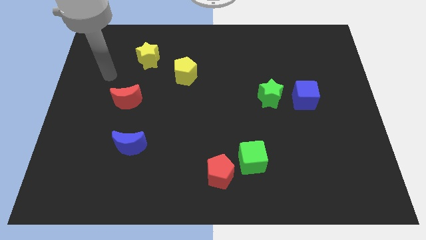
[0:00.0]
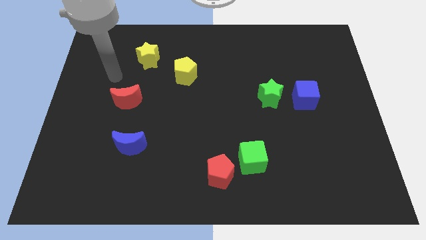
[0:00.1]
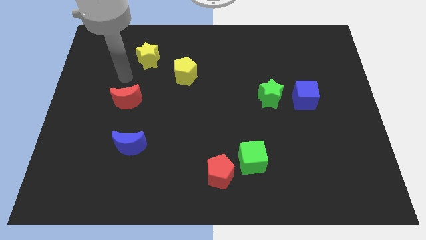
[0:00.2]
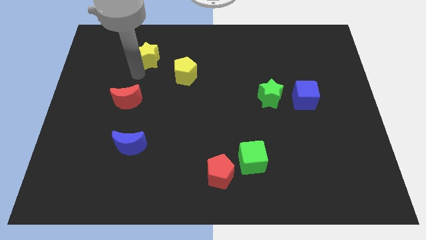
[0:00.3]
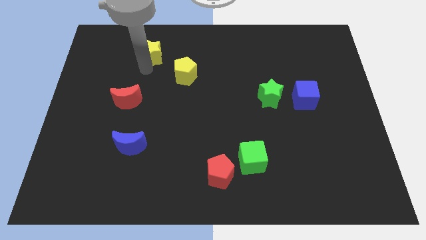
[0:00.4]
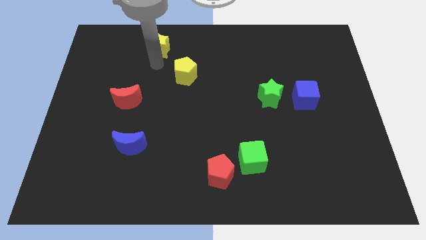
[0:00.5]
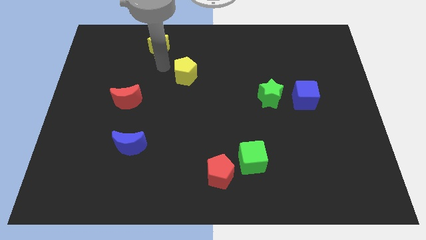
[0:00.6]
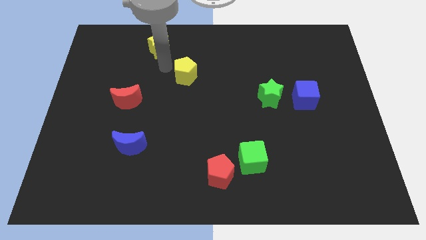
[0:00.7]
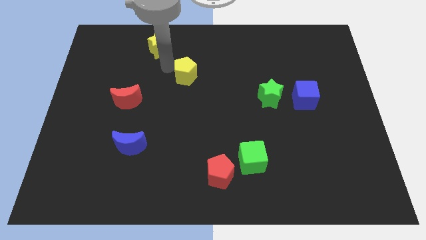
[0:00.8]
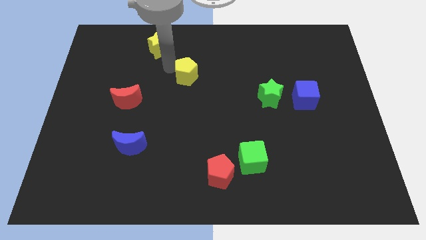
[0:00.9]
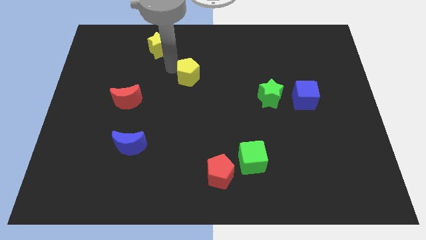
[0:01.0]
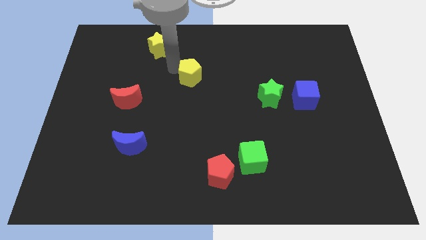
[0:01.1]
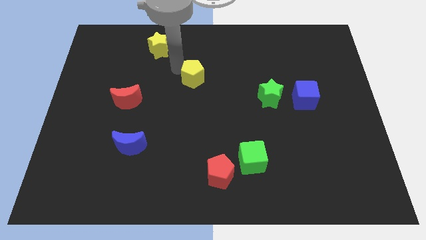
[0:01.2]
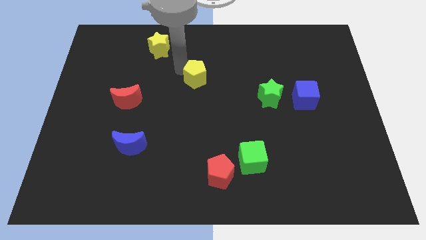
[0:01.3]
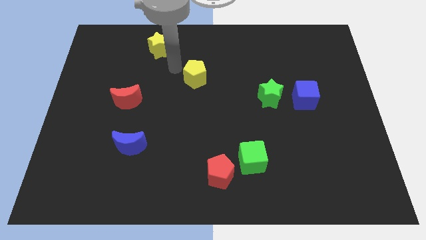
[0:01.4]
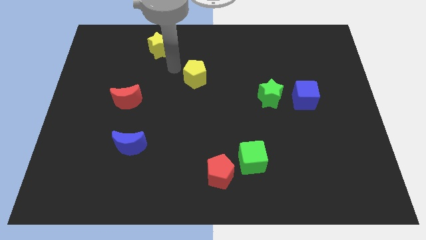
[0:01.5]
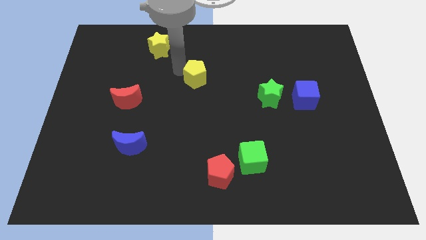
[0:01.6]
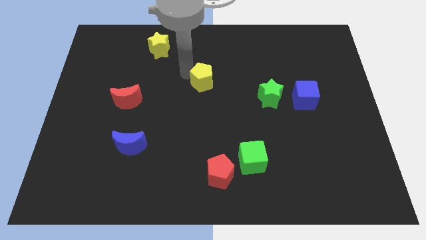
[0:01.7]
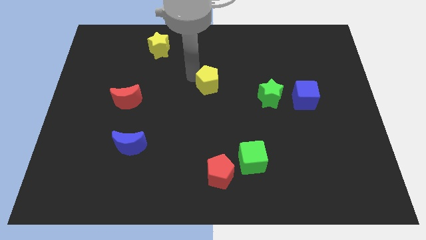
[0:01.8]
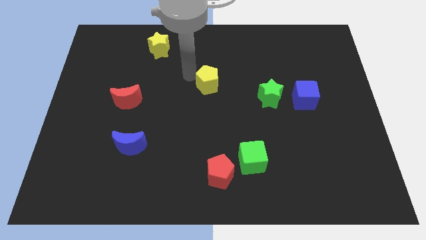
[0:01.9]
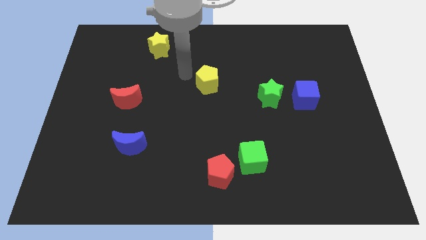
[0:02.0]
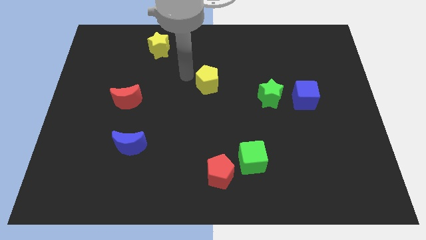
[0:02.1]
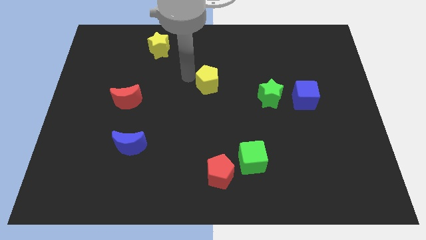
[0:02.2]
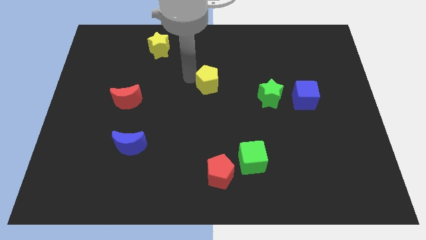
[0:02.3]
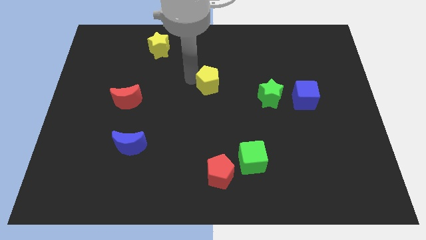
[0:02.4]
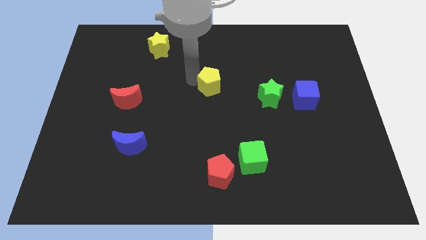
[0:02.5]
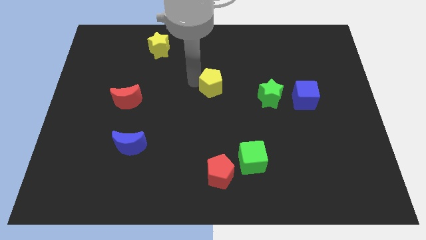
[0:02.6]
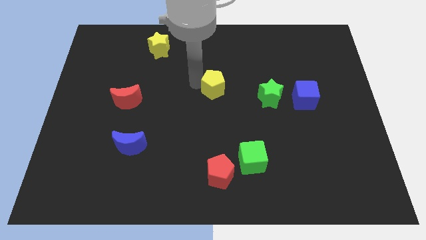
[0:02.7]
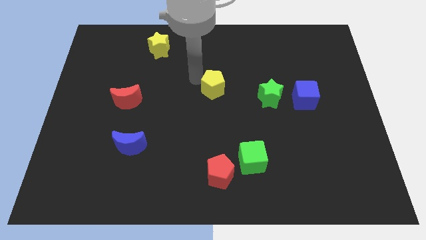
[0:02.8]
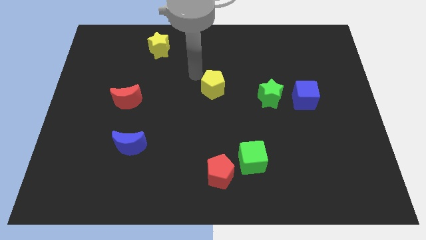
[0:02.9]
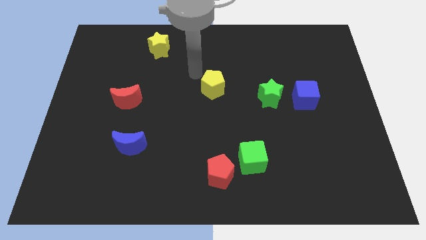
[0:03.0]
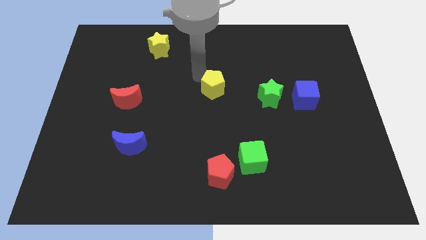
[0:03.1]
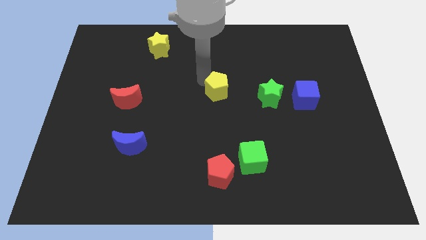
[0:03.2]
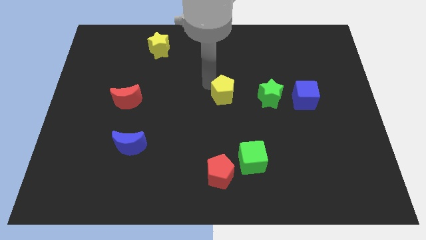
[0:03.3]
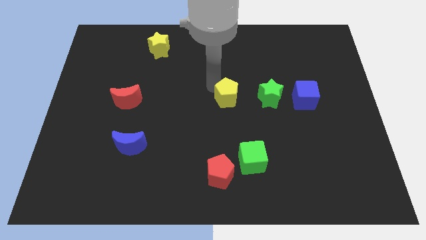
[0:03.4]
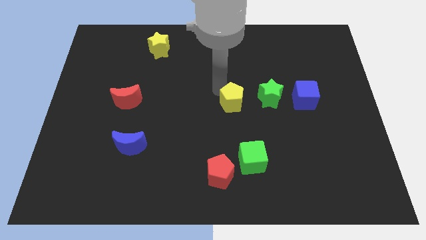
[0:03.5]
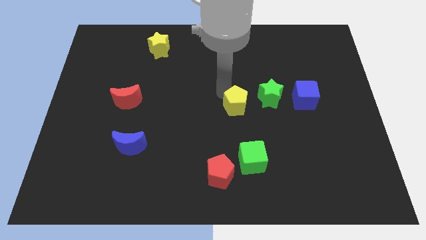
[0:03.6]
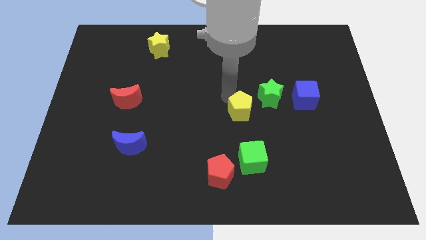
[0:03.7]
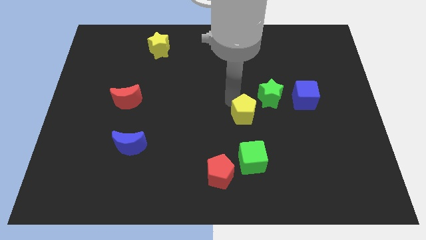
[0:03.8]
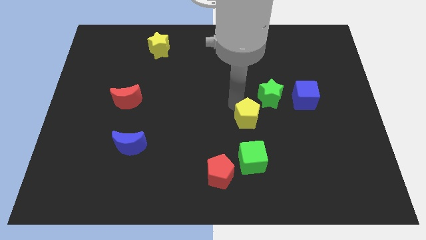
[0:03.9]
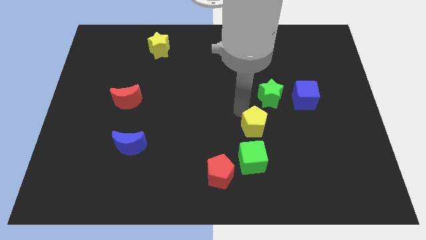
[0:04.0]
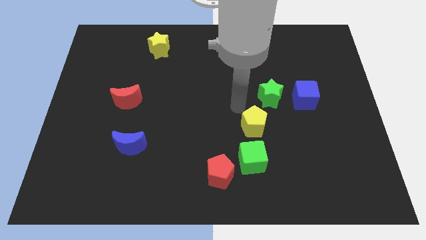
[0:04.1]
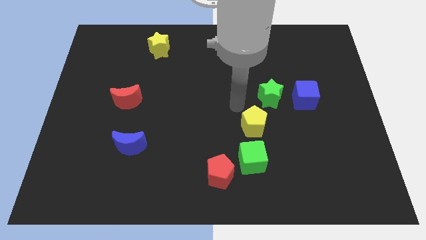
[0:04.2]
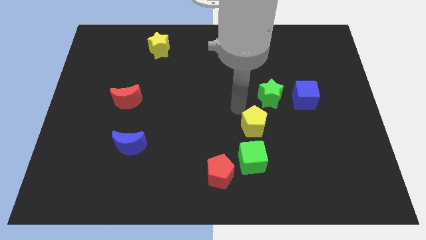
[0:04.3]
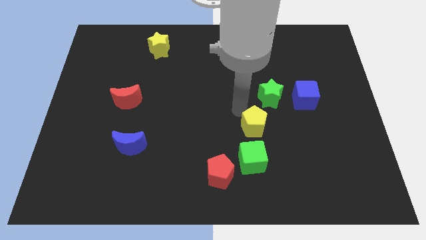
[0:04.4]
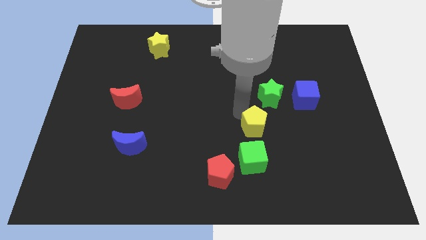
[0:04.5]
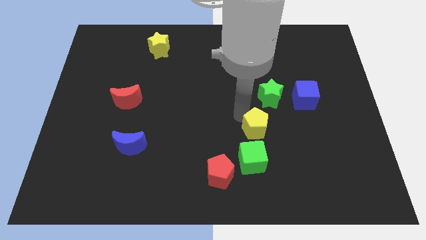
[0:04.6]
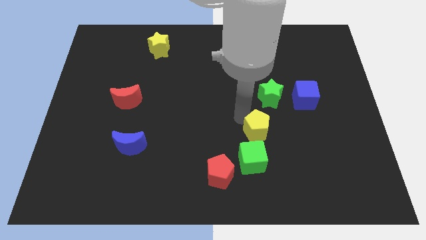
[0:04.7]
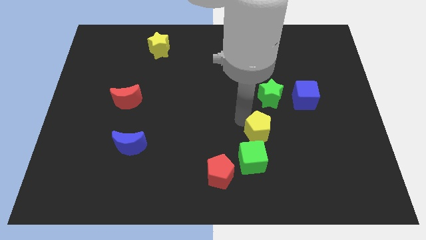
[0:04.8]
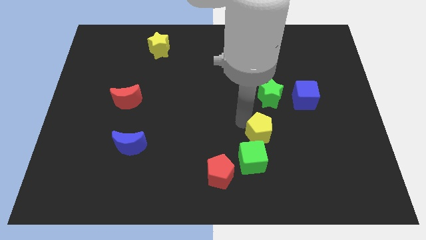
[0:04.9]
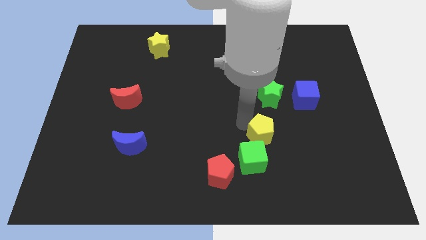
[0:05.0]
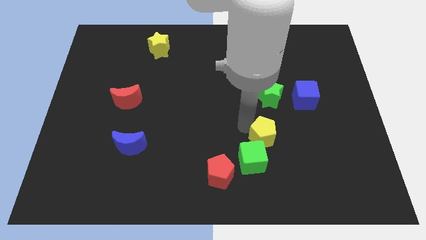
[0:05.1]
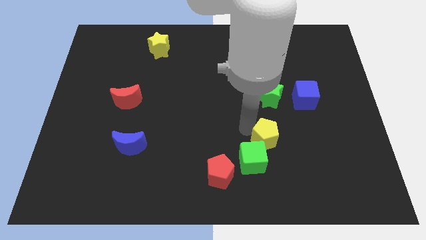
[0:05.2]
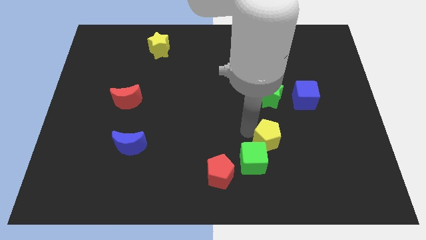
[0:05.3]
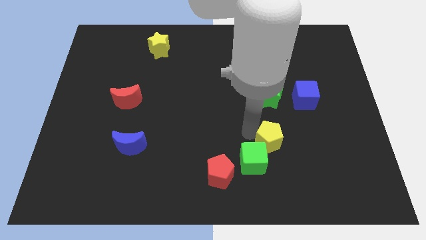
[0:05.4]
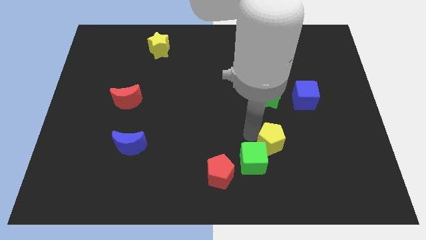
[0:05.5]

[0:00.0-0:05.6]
slide the yellow pentagon right of the green cube

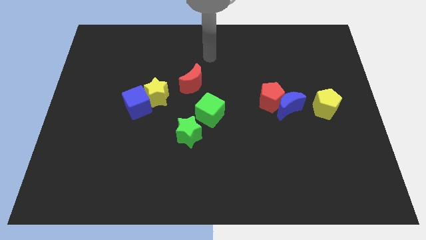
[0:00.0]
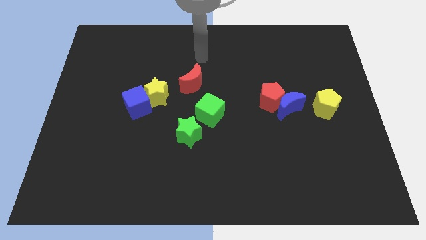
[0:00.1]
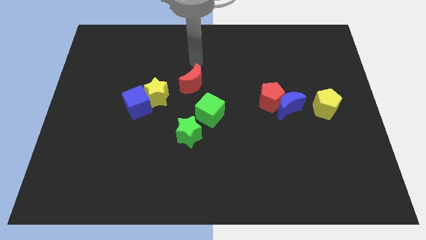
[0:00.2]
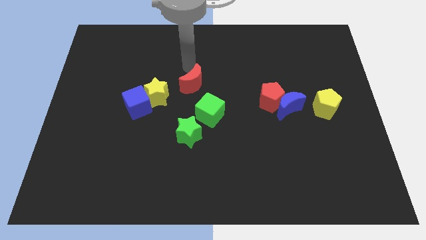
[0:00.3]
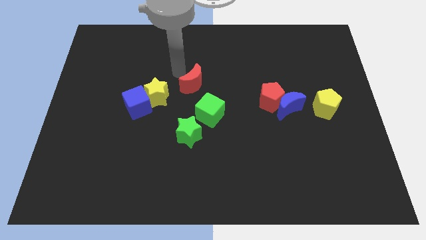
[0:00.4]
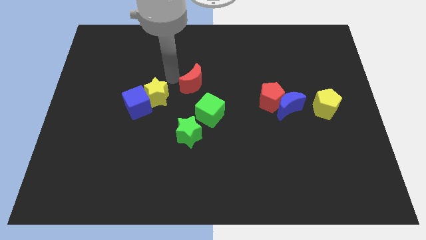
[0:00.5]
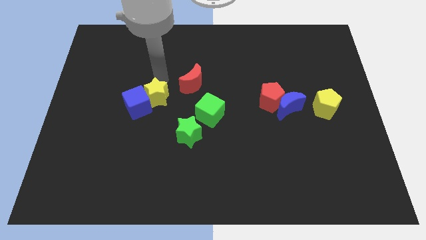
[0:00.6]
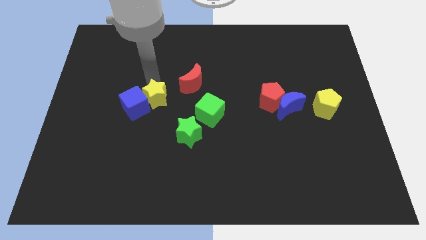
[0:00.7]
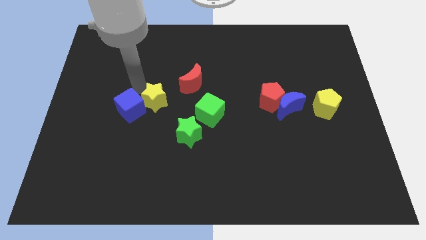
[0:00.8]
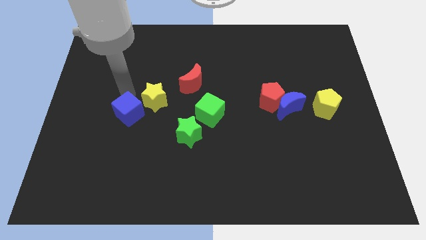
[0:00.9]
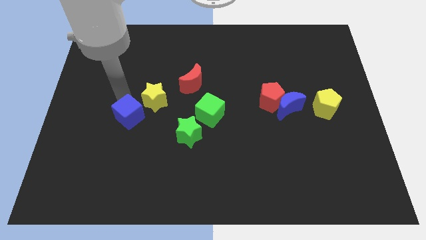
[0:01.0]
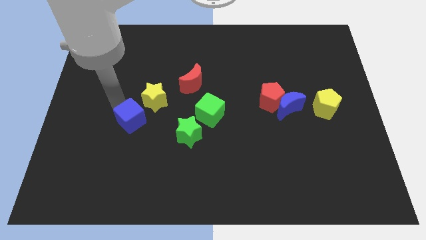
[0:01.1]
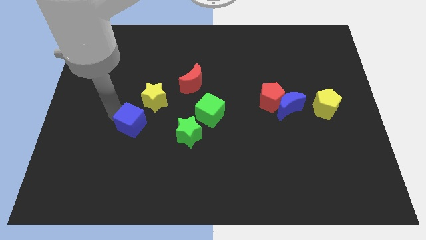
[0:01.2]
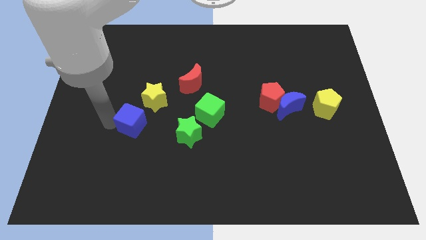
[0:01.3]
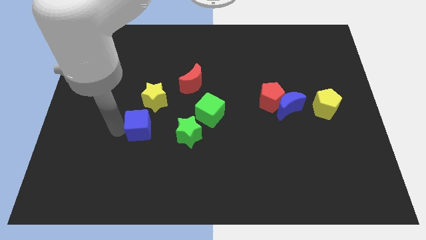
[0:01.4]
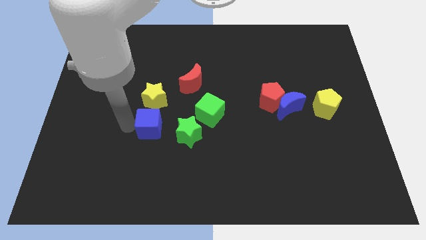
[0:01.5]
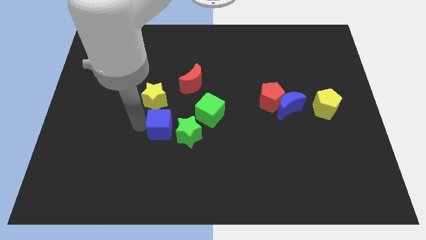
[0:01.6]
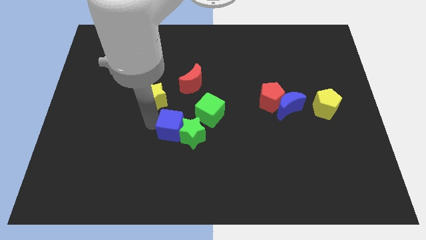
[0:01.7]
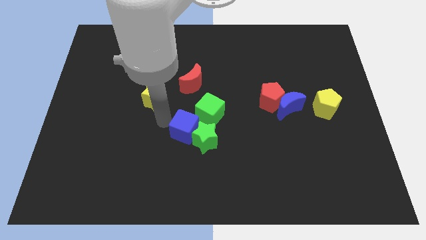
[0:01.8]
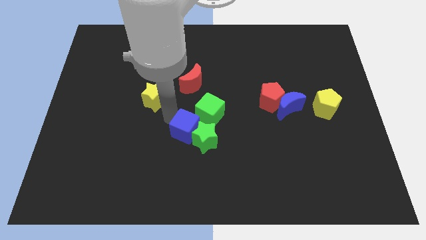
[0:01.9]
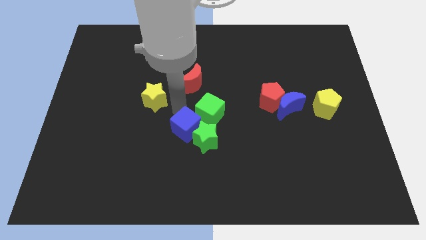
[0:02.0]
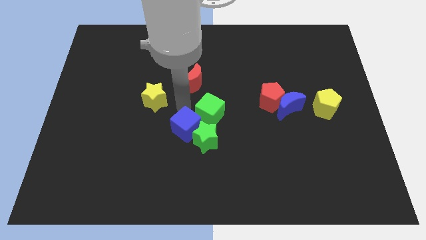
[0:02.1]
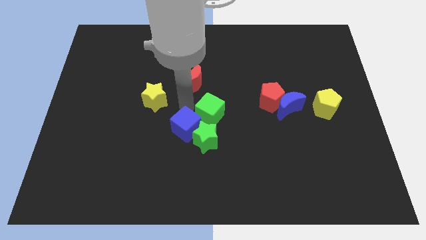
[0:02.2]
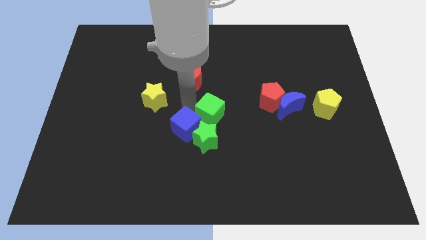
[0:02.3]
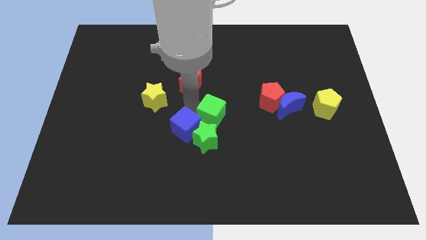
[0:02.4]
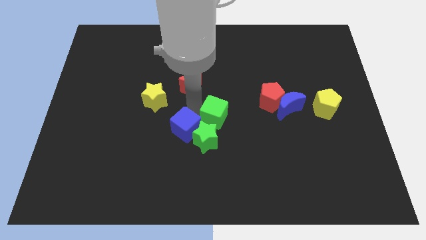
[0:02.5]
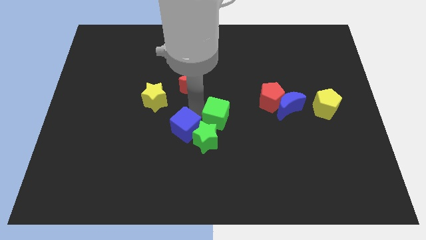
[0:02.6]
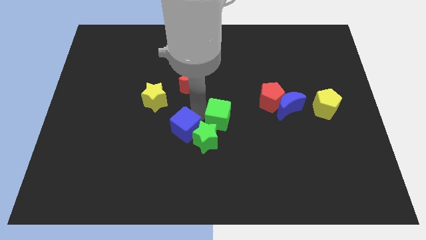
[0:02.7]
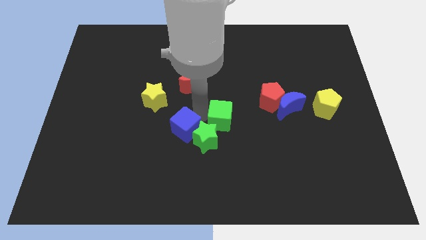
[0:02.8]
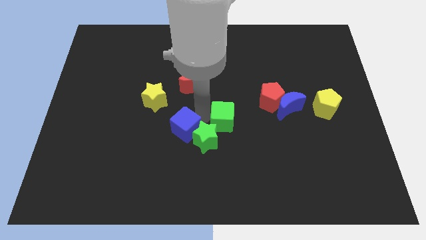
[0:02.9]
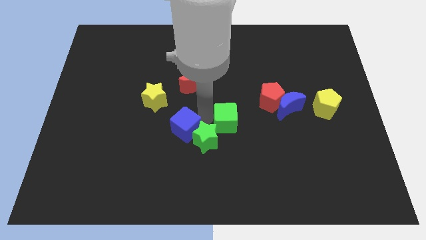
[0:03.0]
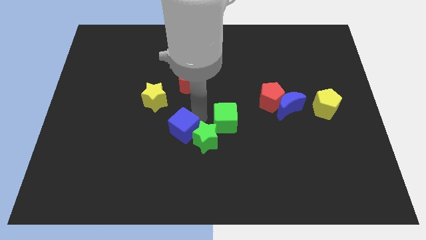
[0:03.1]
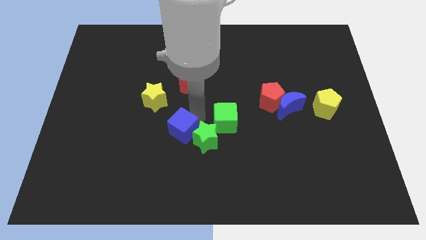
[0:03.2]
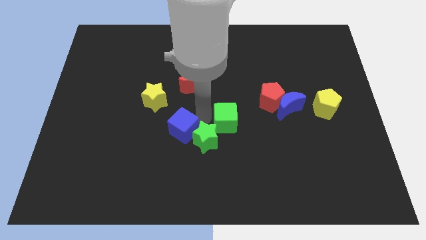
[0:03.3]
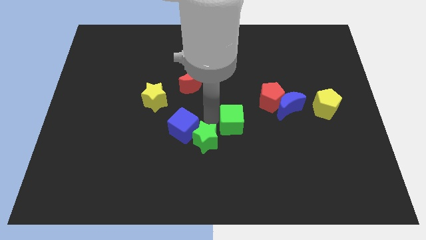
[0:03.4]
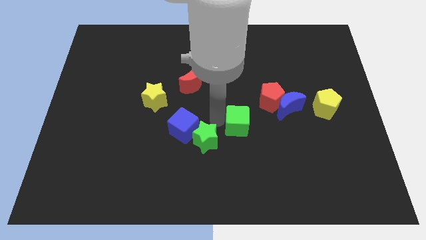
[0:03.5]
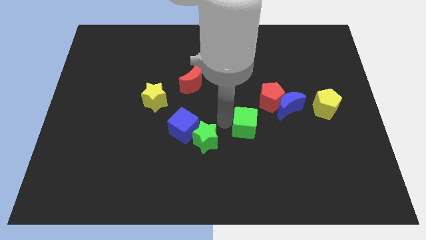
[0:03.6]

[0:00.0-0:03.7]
put the green cube to the bottom left side of the blue moon
